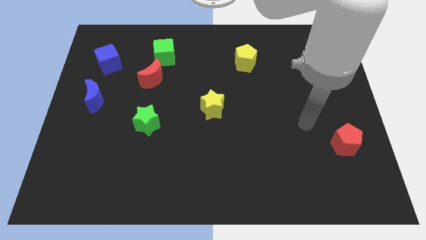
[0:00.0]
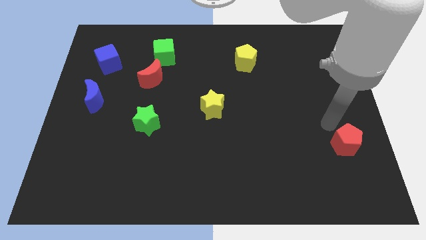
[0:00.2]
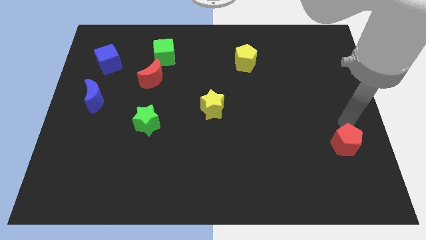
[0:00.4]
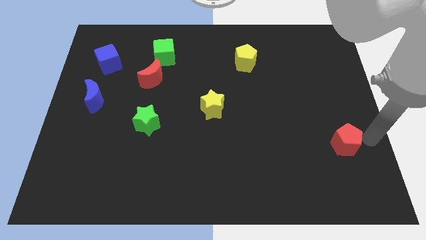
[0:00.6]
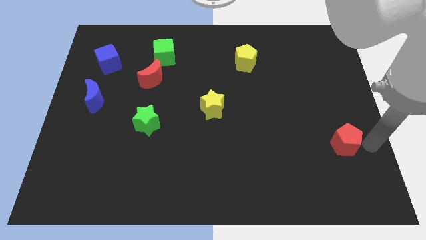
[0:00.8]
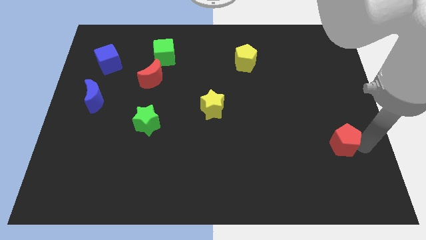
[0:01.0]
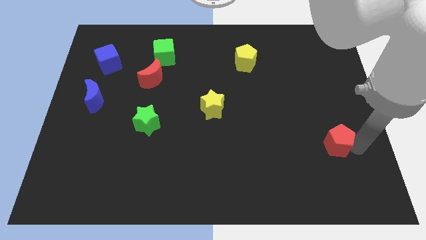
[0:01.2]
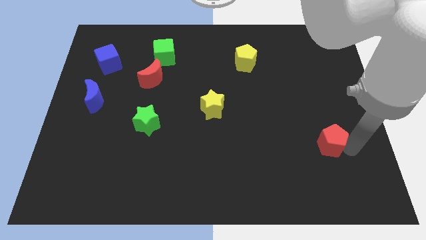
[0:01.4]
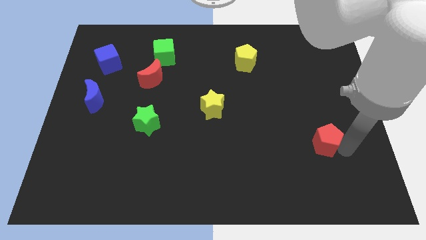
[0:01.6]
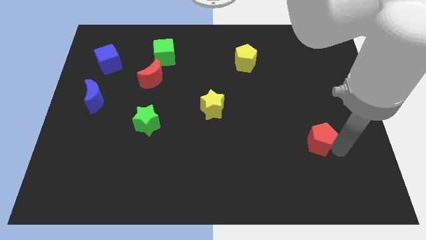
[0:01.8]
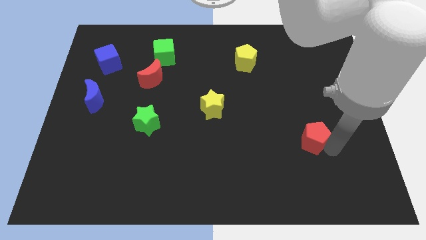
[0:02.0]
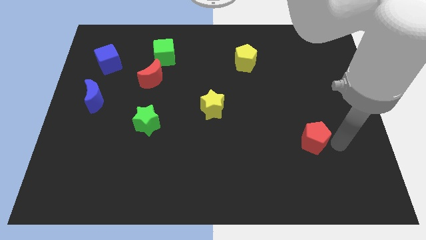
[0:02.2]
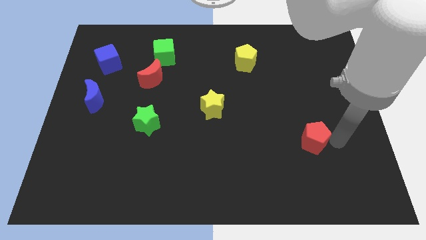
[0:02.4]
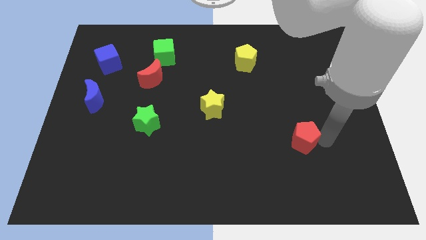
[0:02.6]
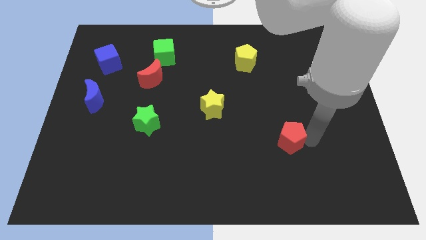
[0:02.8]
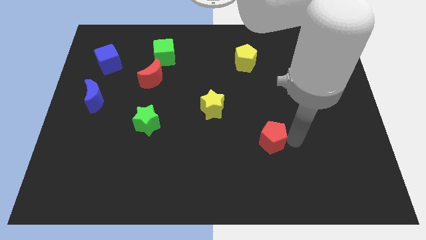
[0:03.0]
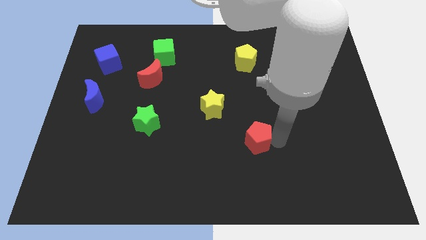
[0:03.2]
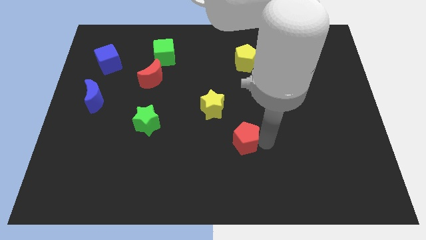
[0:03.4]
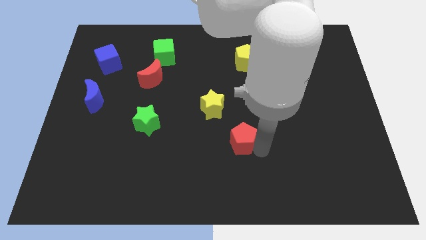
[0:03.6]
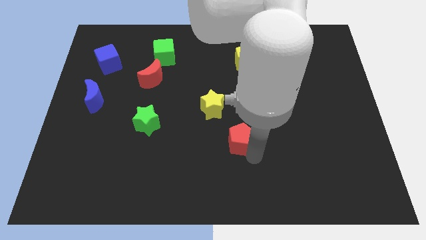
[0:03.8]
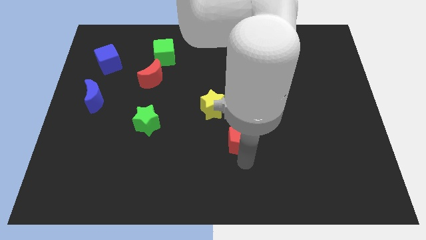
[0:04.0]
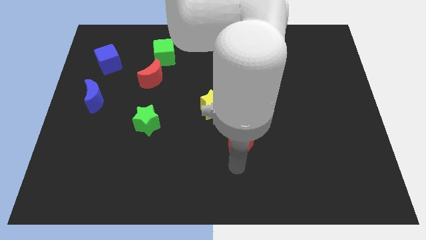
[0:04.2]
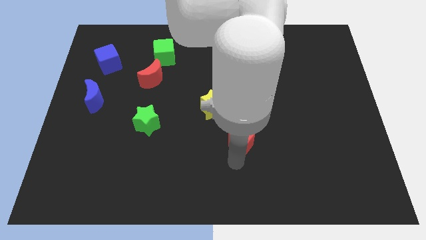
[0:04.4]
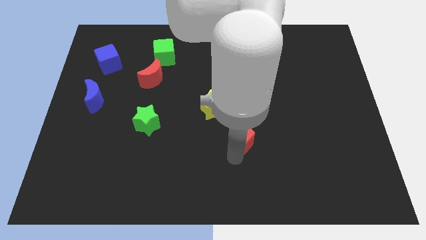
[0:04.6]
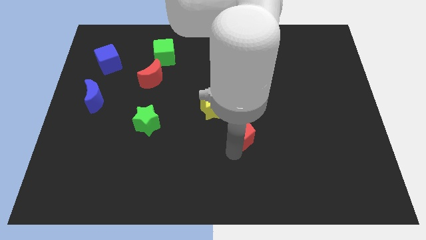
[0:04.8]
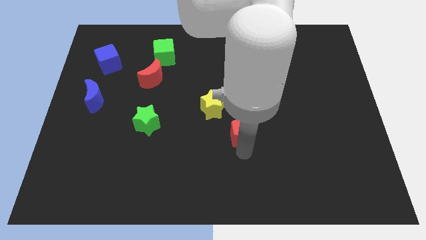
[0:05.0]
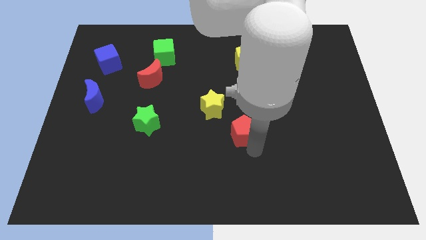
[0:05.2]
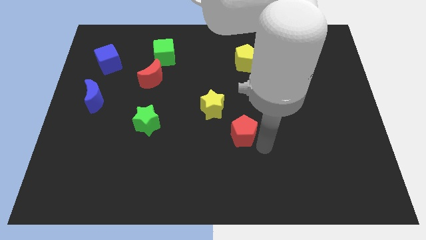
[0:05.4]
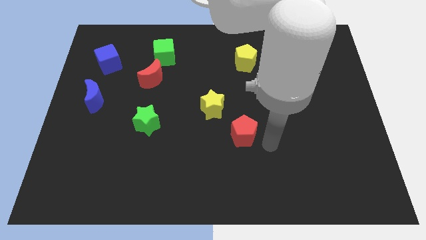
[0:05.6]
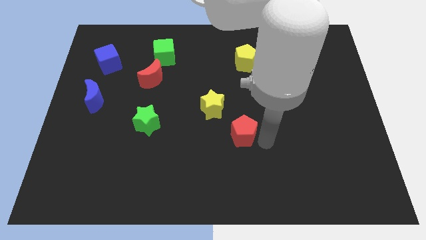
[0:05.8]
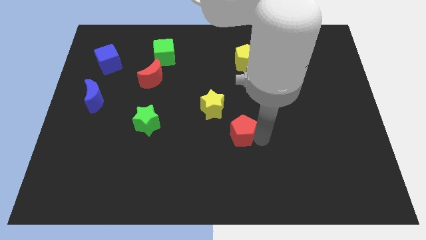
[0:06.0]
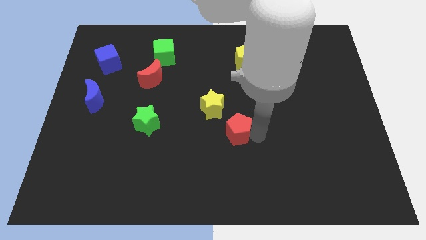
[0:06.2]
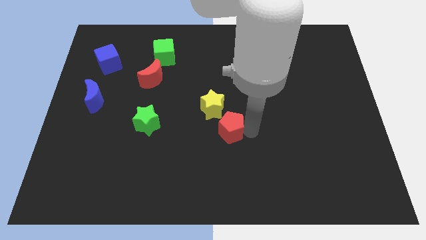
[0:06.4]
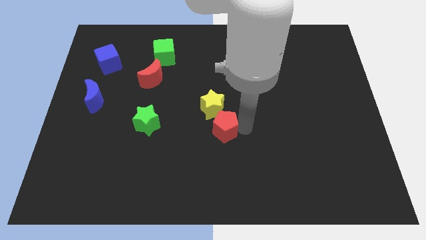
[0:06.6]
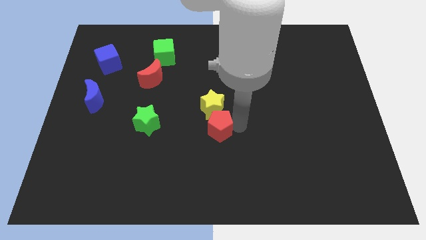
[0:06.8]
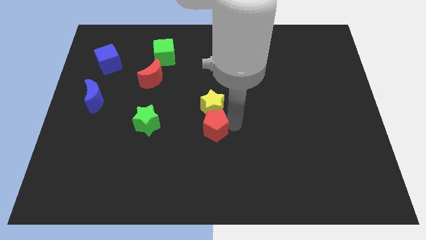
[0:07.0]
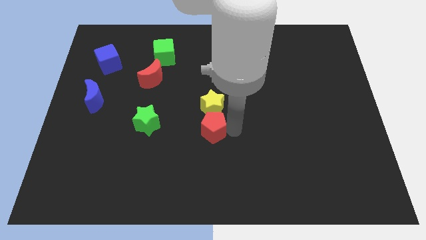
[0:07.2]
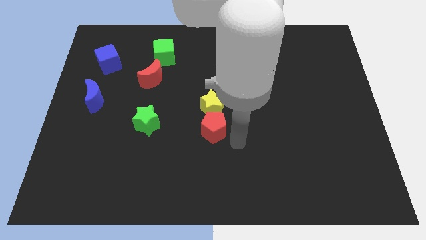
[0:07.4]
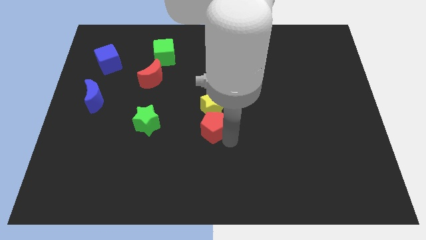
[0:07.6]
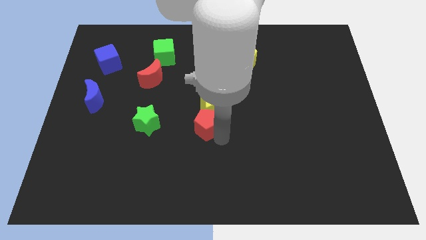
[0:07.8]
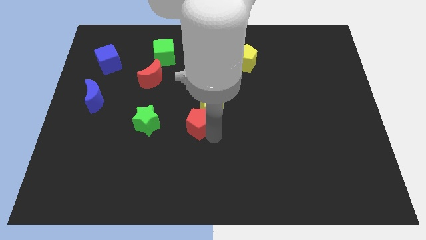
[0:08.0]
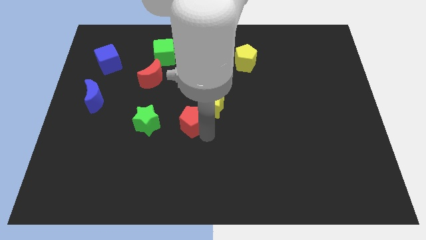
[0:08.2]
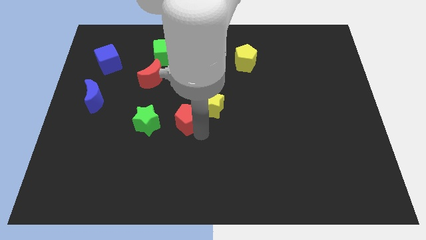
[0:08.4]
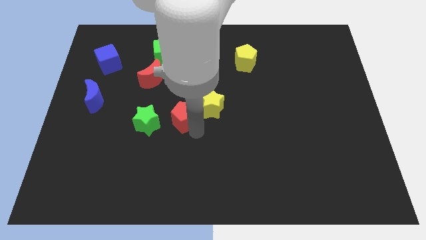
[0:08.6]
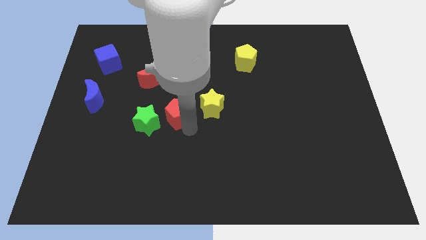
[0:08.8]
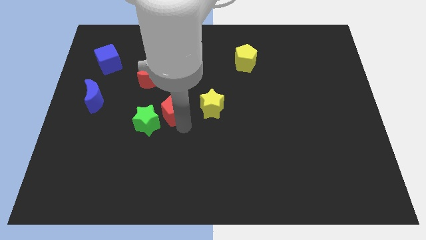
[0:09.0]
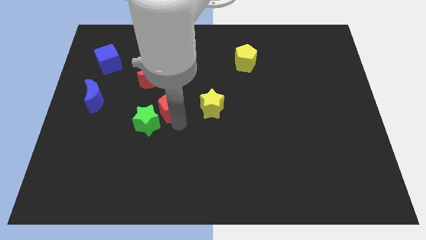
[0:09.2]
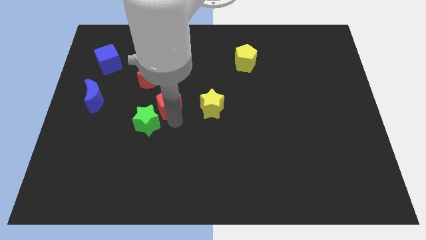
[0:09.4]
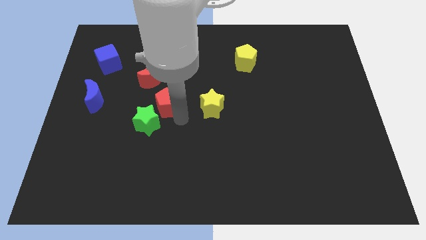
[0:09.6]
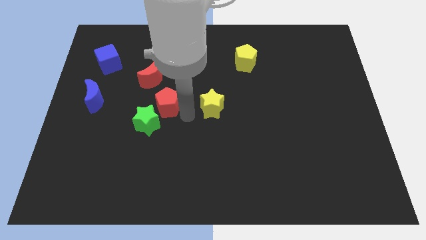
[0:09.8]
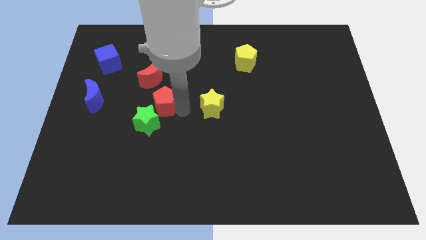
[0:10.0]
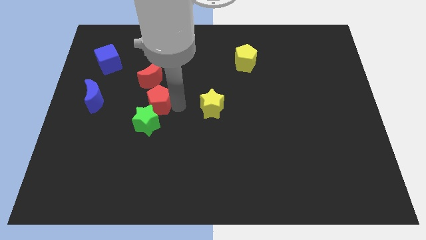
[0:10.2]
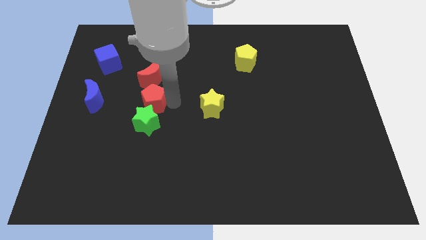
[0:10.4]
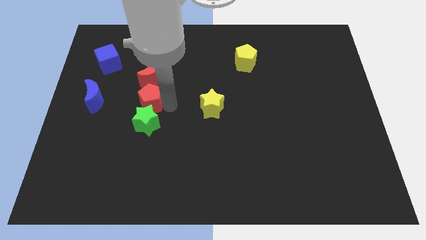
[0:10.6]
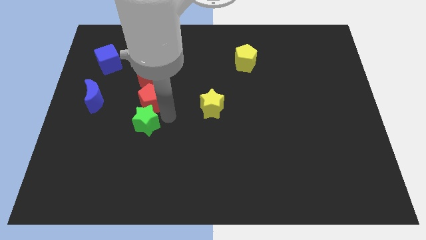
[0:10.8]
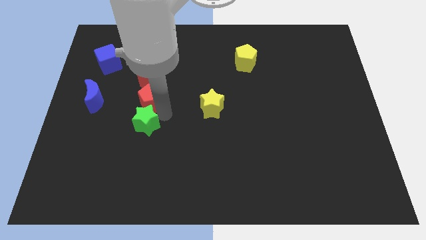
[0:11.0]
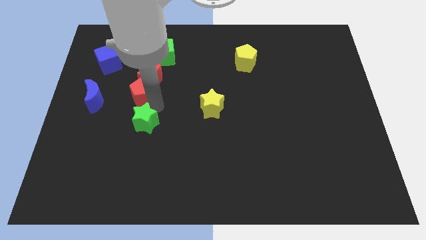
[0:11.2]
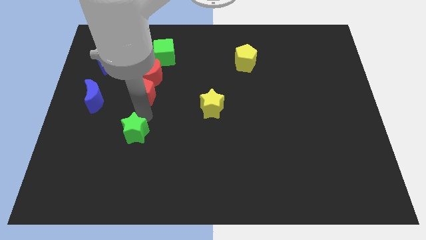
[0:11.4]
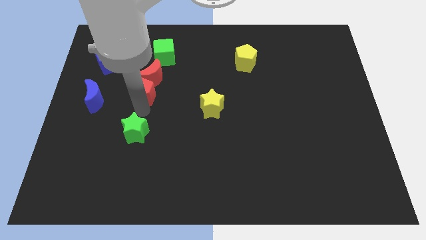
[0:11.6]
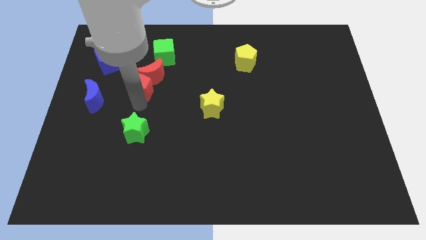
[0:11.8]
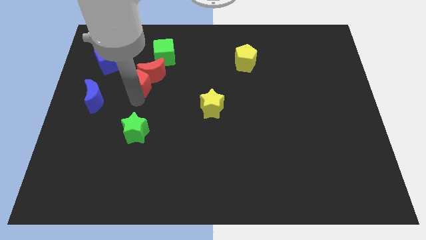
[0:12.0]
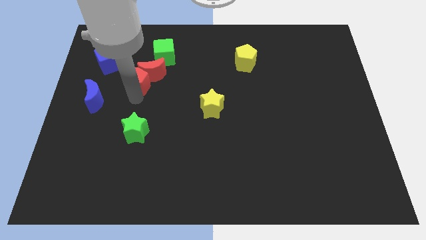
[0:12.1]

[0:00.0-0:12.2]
move the red pentagon diagonally down and to the left of the green cube
